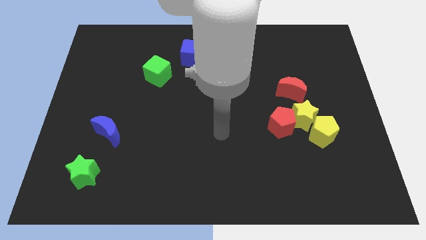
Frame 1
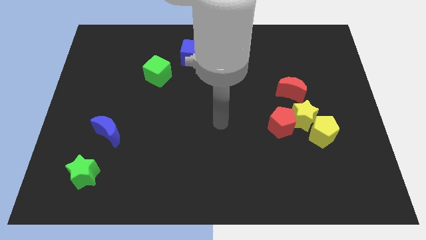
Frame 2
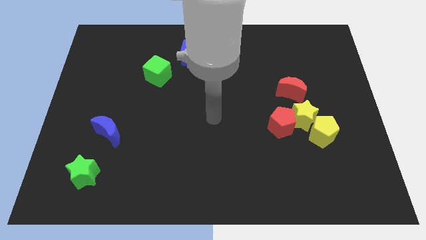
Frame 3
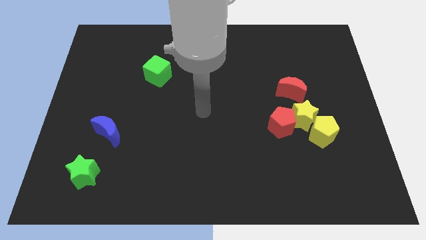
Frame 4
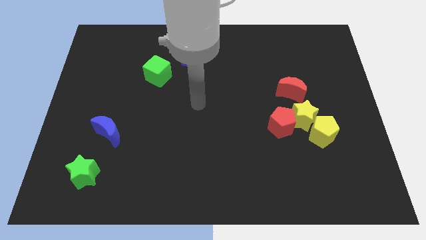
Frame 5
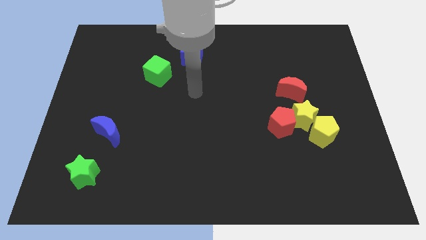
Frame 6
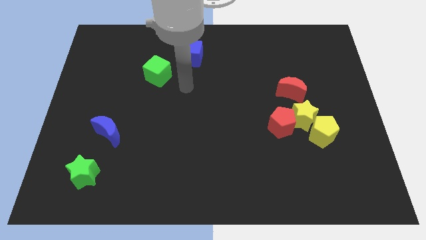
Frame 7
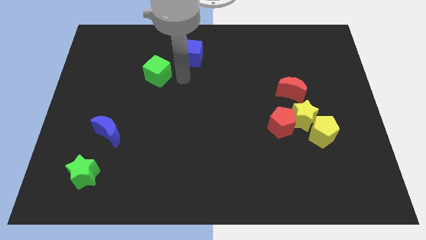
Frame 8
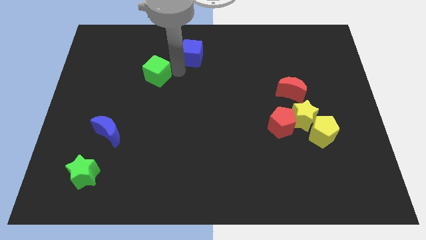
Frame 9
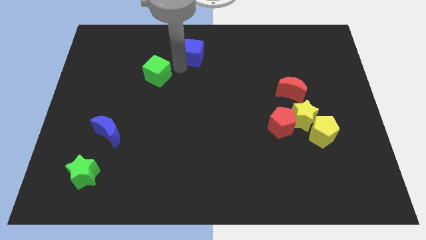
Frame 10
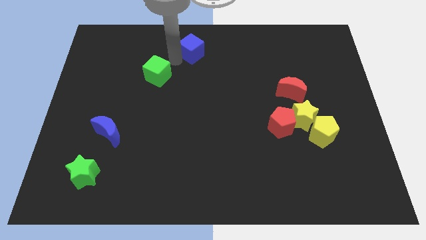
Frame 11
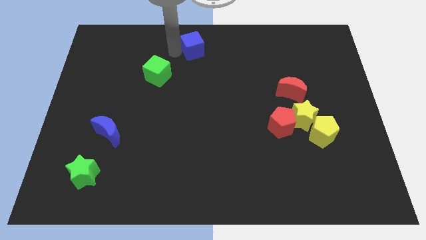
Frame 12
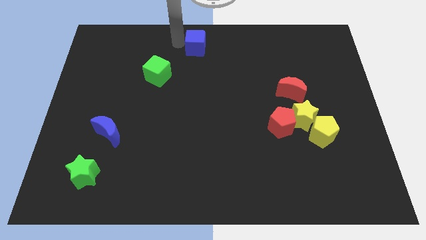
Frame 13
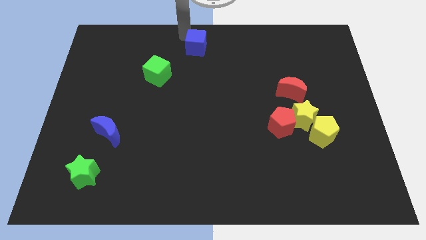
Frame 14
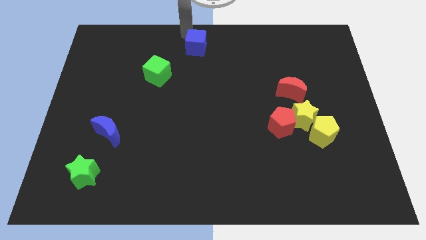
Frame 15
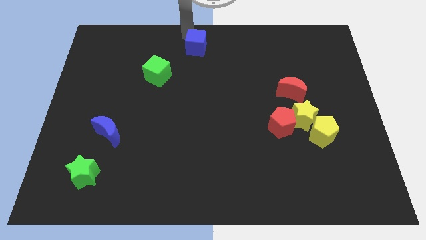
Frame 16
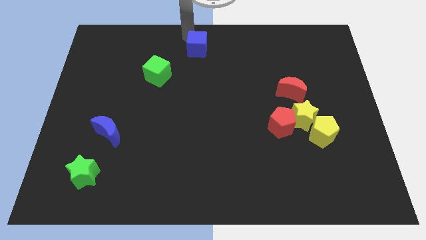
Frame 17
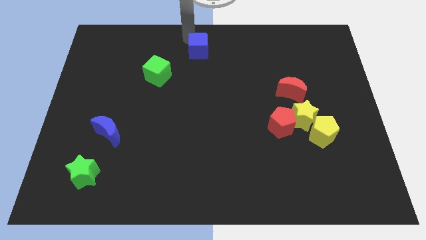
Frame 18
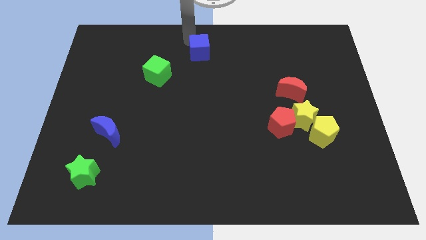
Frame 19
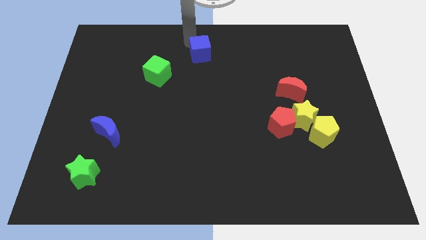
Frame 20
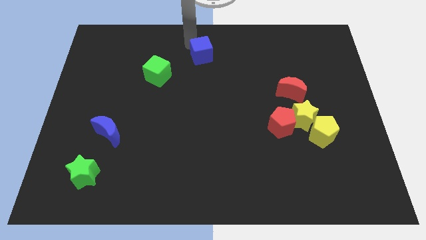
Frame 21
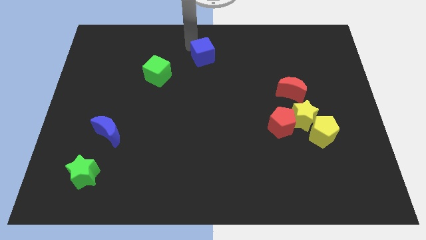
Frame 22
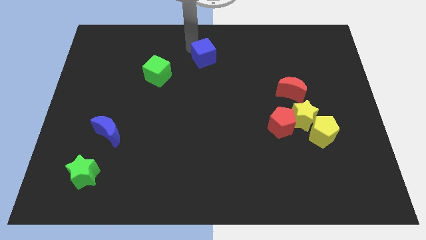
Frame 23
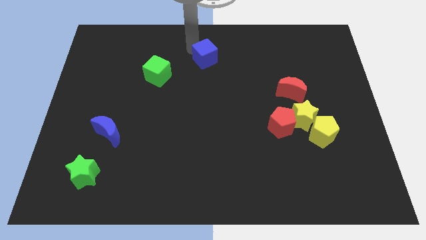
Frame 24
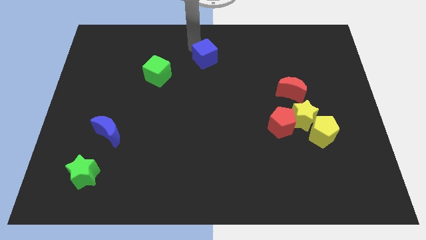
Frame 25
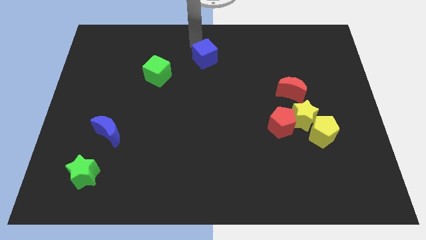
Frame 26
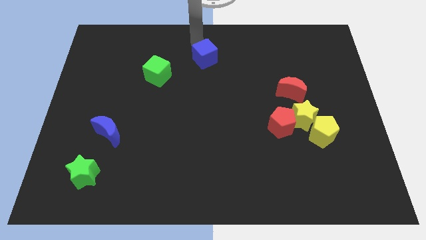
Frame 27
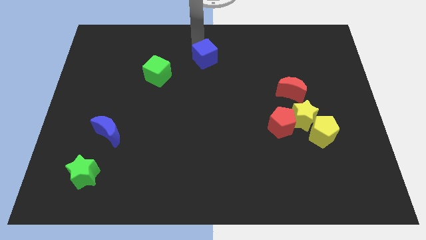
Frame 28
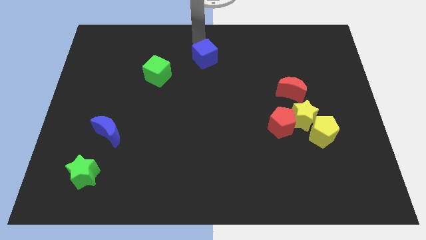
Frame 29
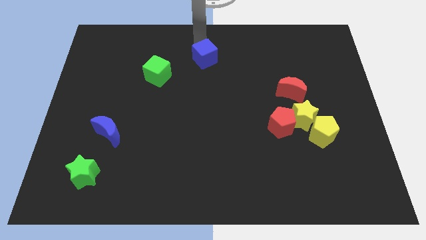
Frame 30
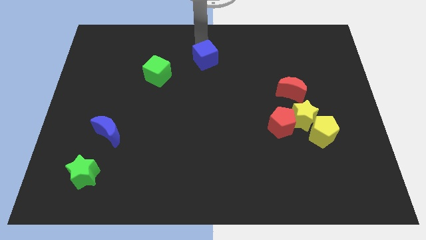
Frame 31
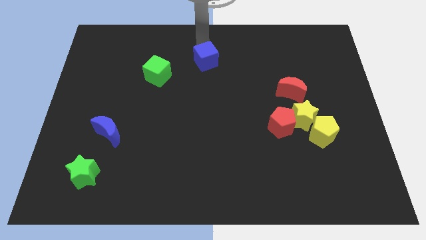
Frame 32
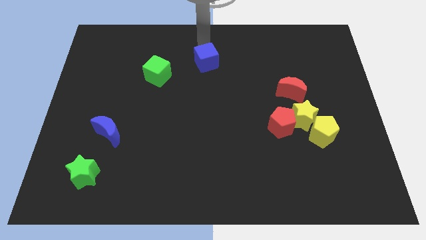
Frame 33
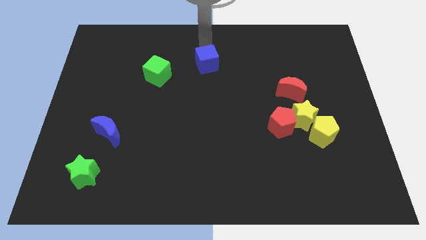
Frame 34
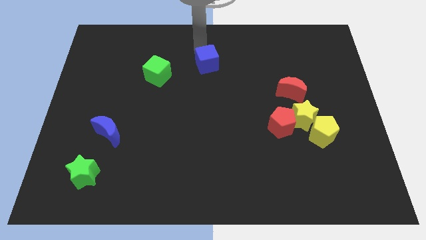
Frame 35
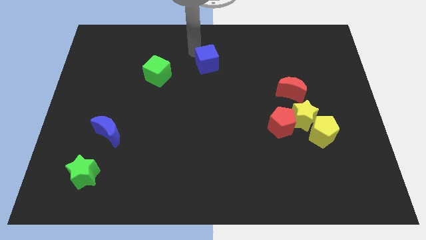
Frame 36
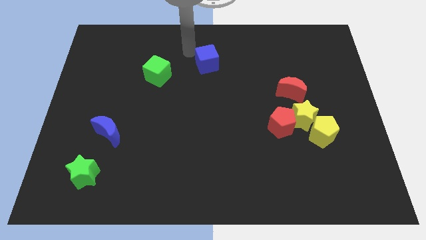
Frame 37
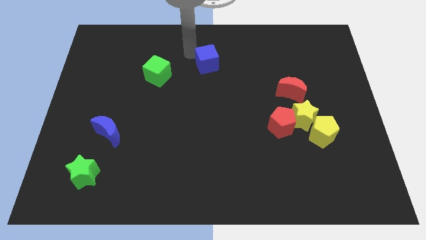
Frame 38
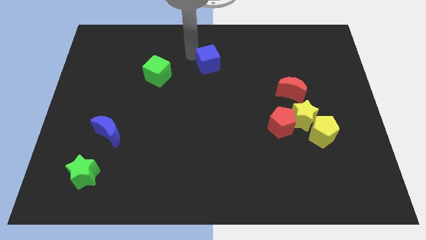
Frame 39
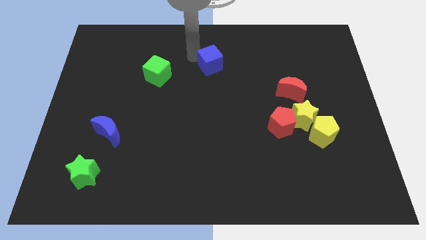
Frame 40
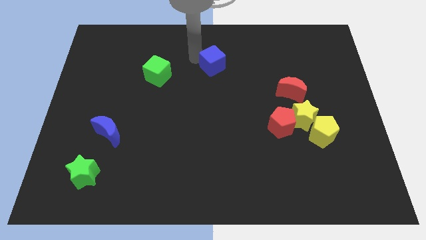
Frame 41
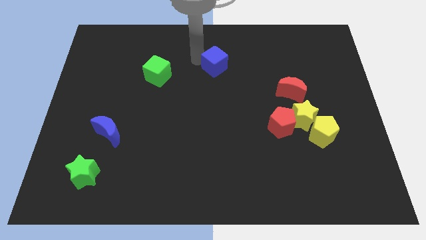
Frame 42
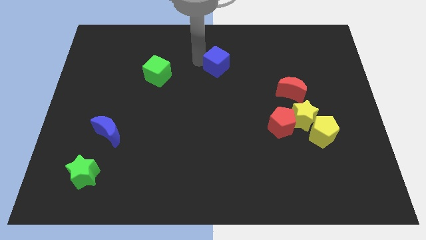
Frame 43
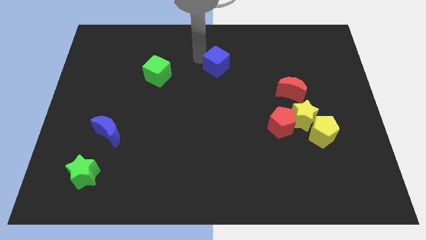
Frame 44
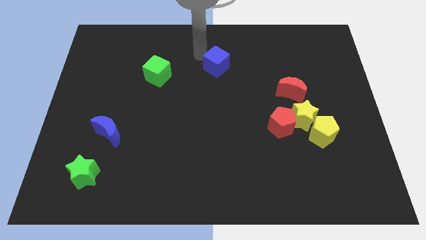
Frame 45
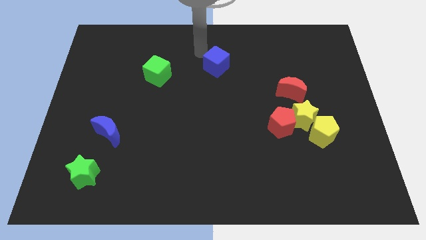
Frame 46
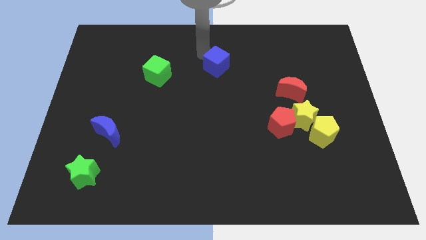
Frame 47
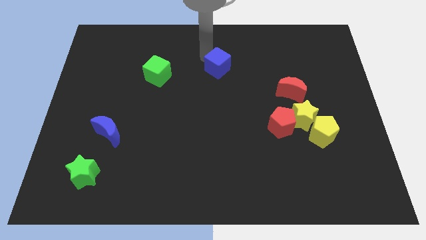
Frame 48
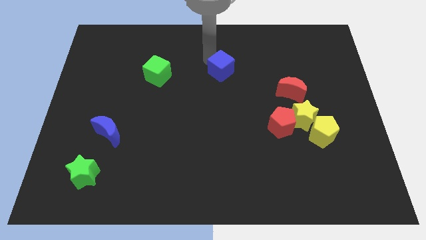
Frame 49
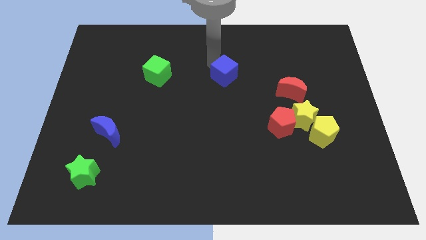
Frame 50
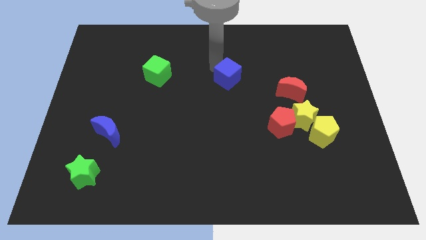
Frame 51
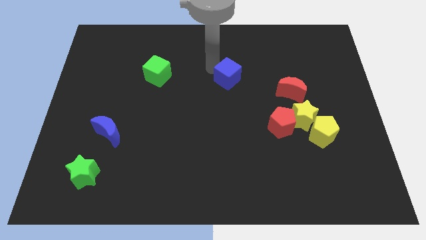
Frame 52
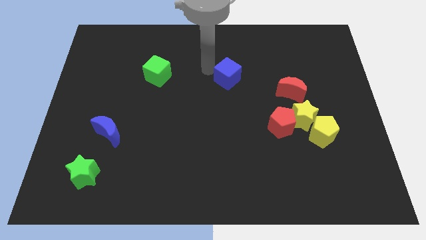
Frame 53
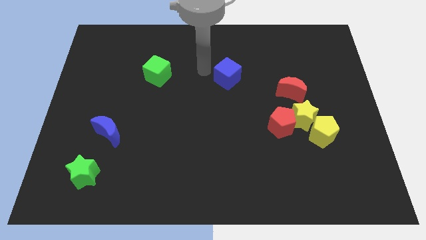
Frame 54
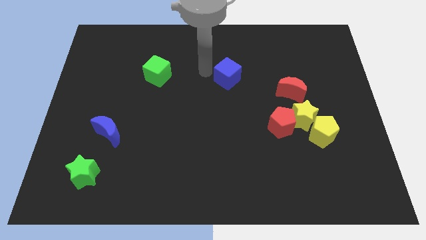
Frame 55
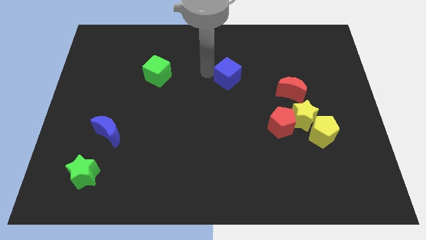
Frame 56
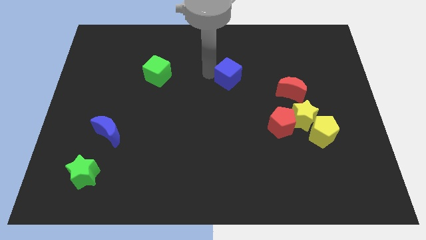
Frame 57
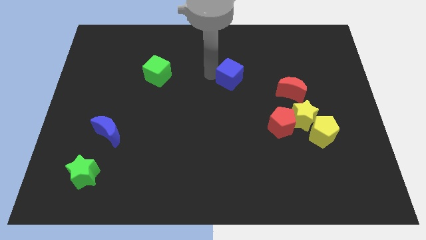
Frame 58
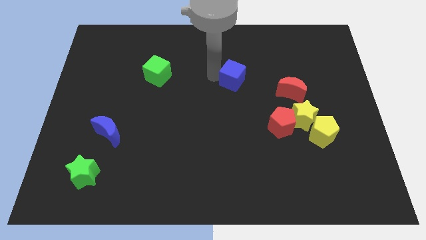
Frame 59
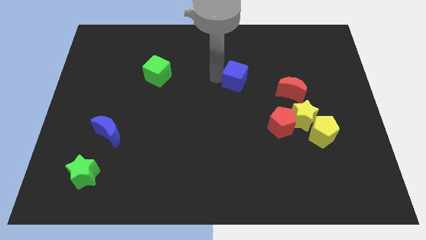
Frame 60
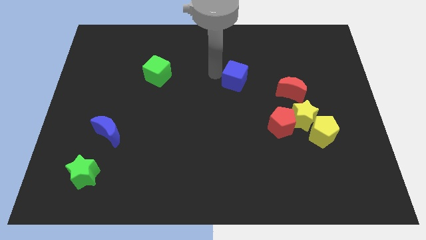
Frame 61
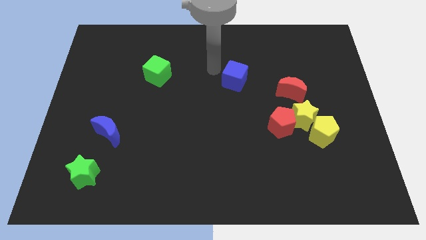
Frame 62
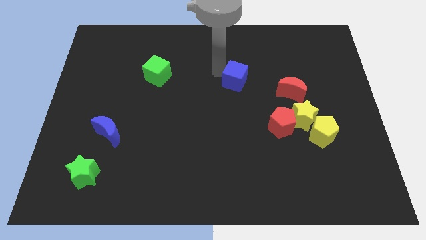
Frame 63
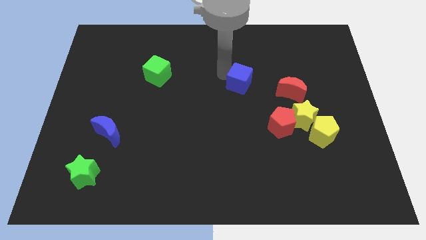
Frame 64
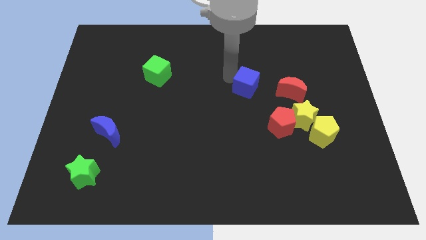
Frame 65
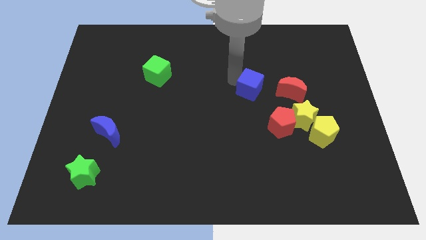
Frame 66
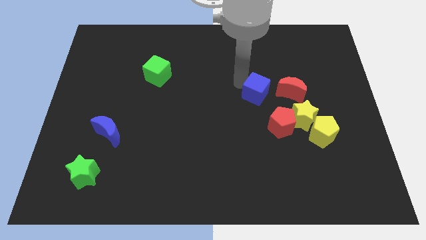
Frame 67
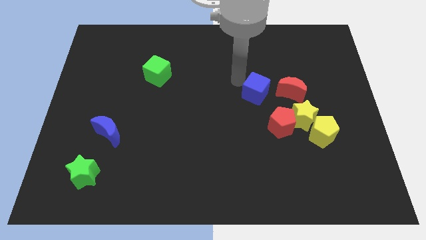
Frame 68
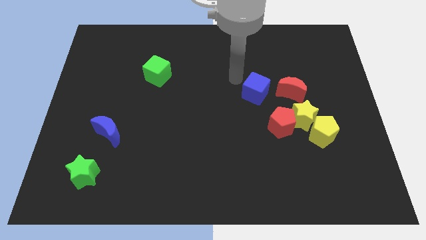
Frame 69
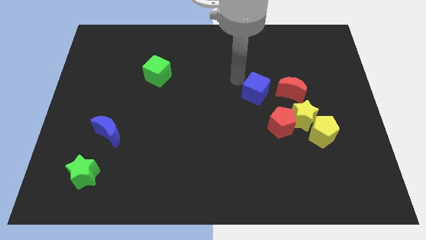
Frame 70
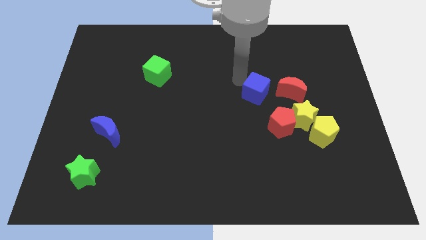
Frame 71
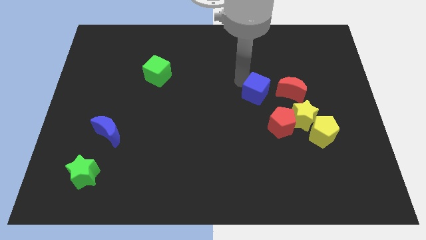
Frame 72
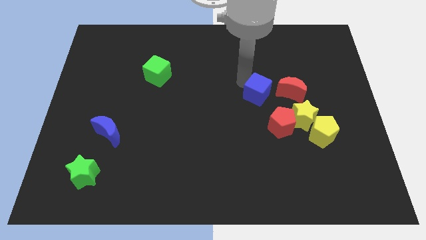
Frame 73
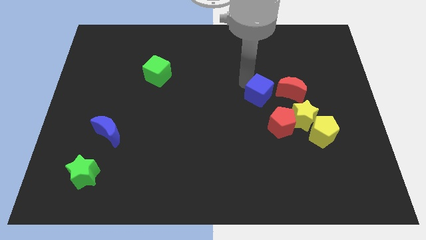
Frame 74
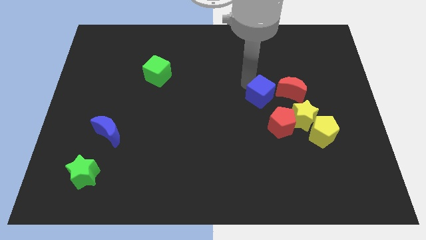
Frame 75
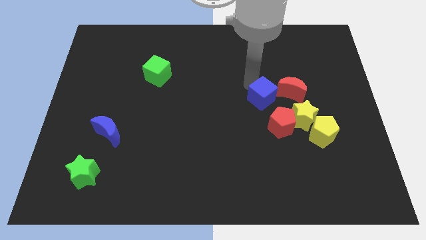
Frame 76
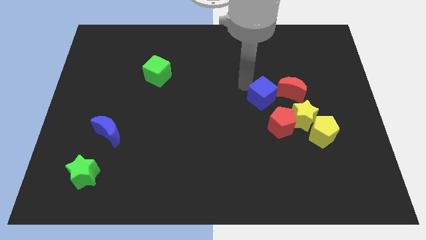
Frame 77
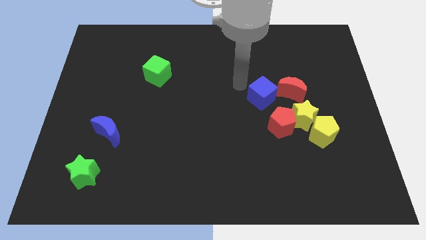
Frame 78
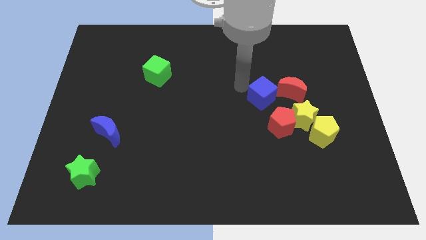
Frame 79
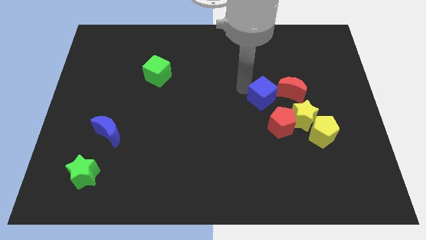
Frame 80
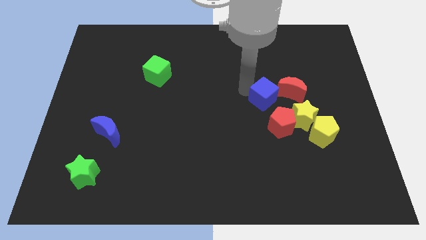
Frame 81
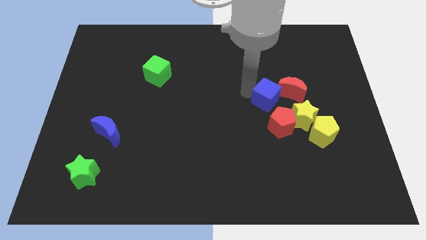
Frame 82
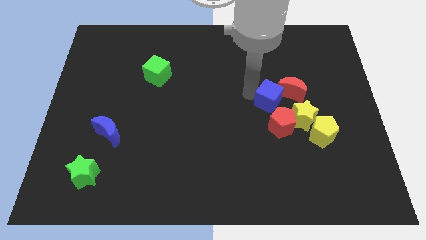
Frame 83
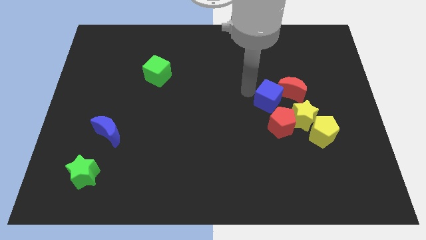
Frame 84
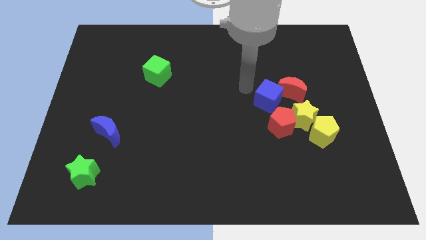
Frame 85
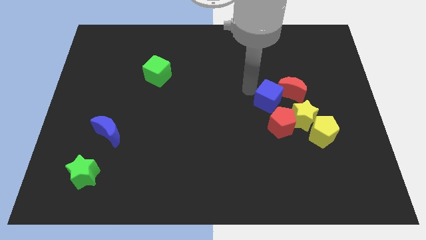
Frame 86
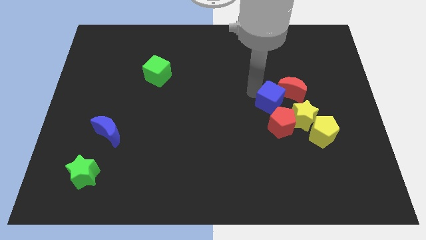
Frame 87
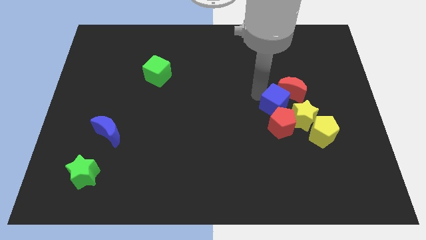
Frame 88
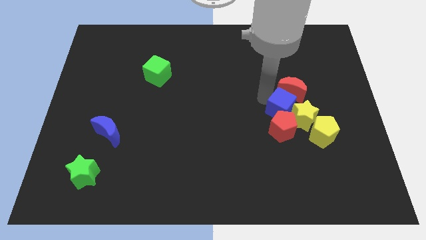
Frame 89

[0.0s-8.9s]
move the blue cube next to the yellow star
